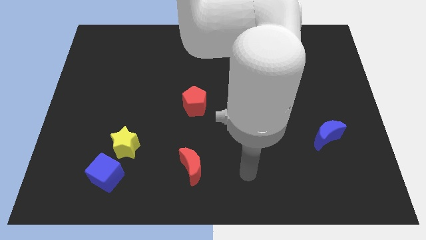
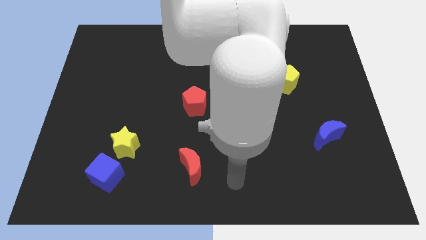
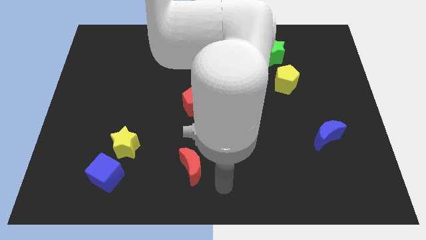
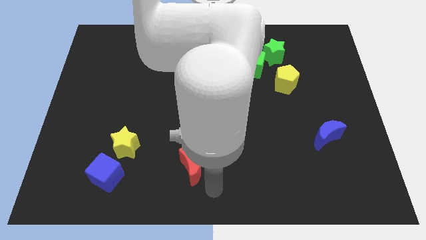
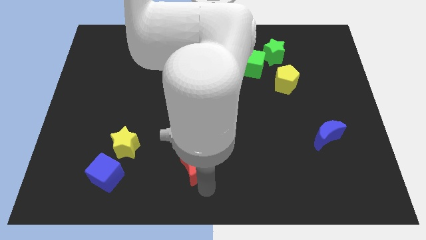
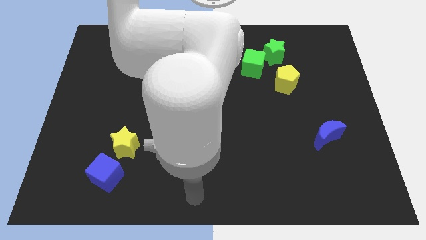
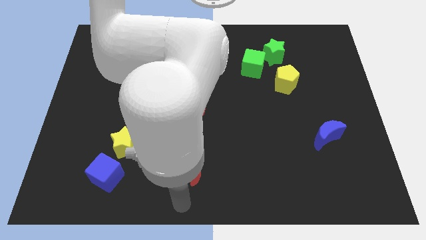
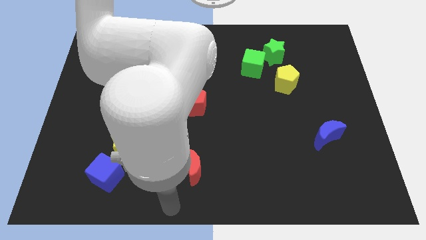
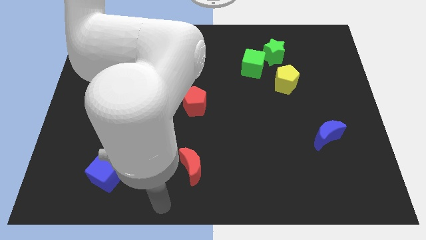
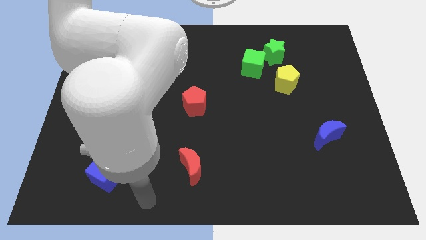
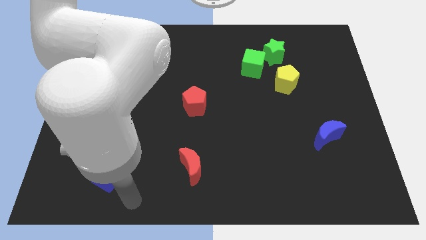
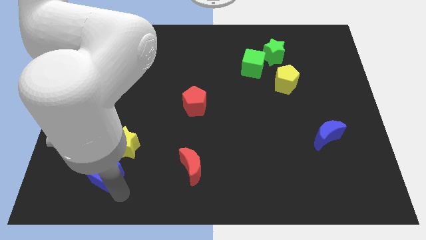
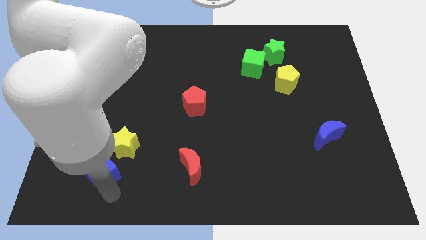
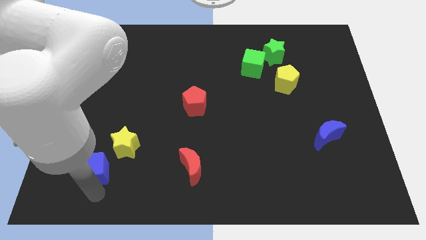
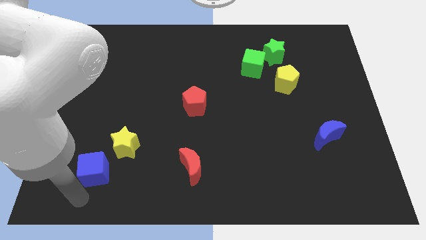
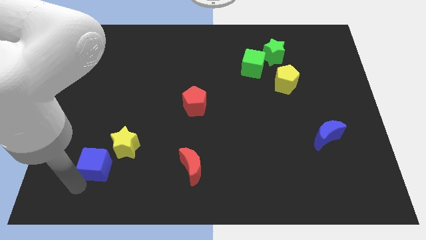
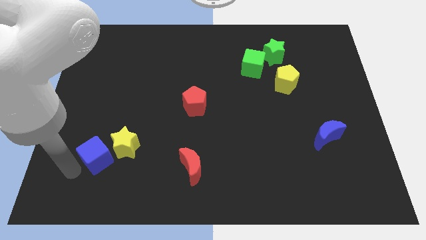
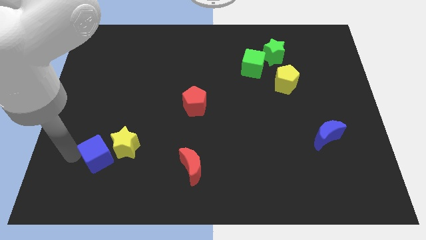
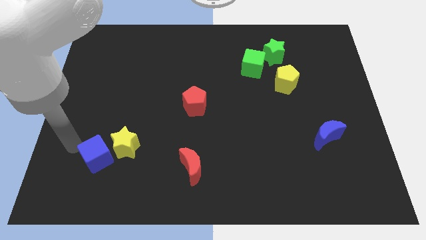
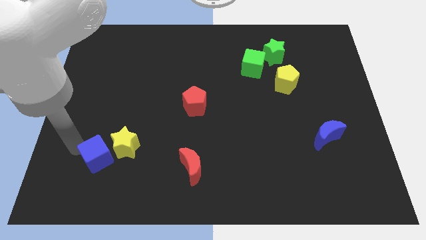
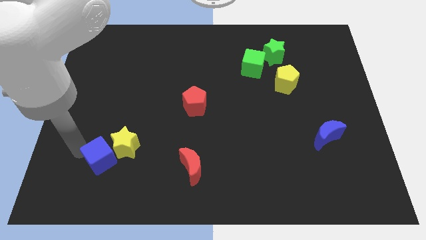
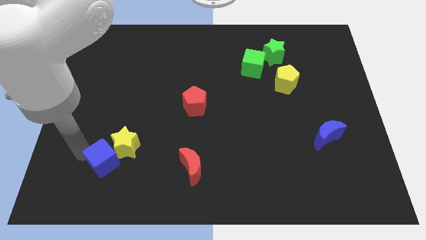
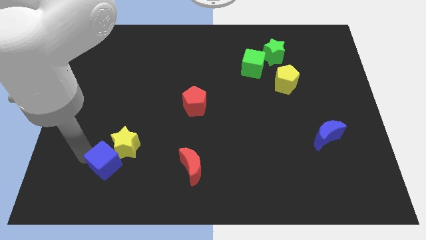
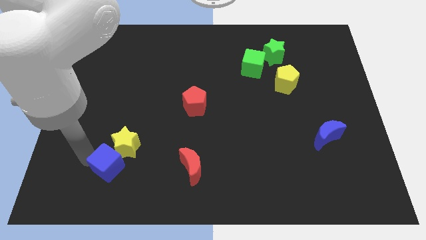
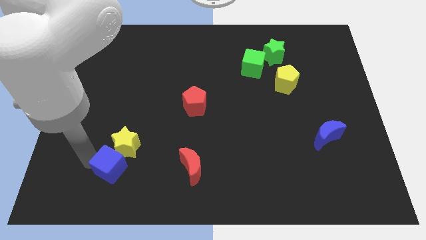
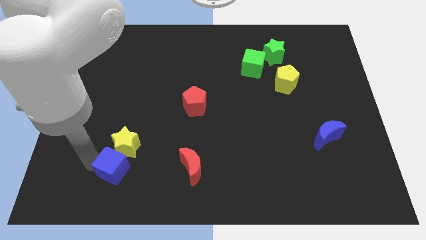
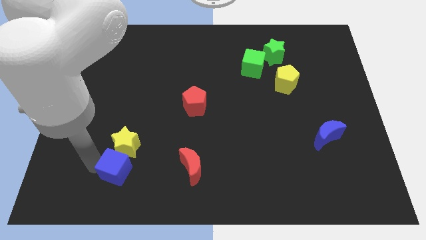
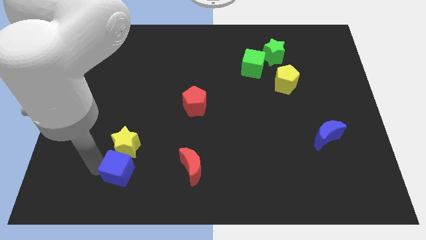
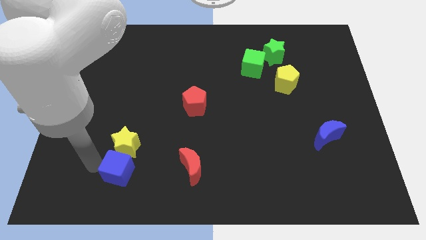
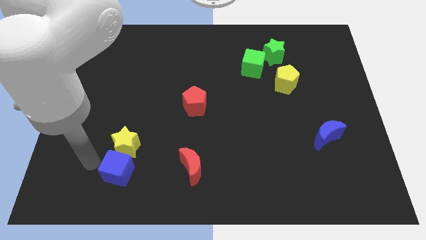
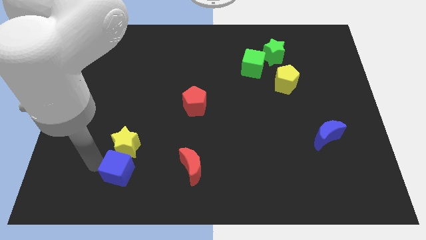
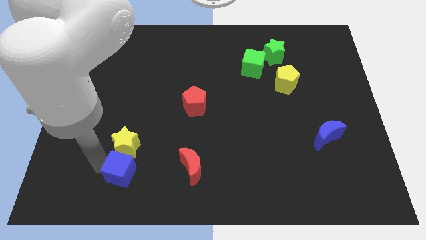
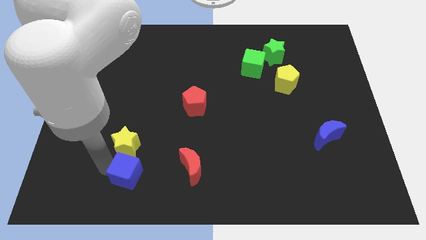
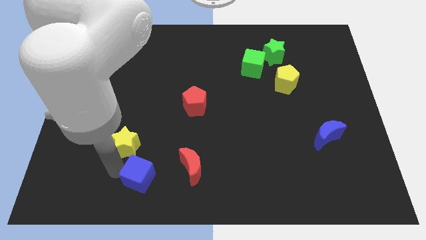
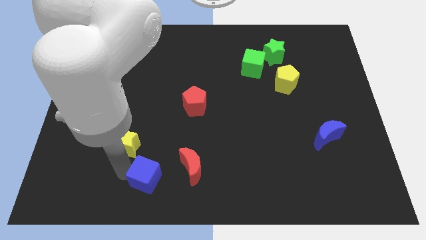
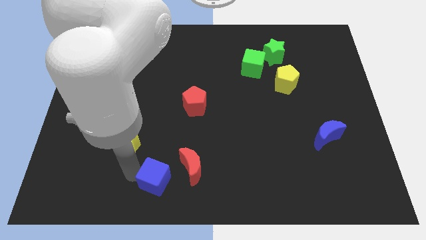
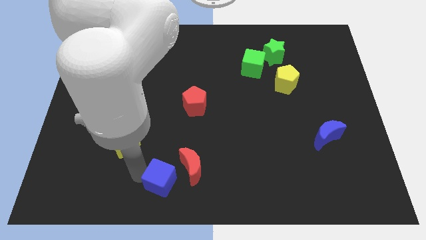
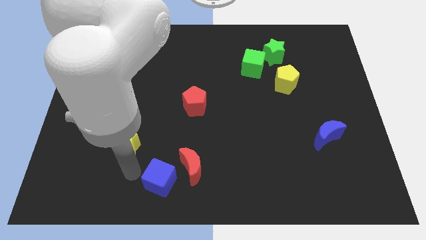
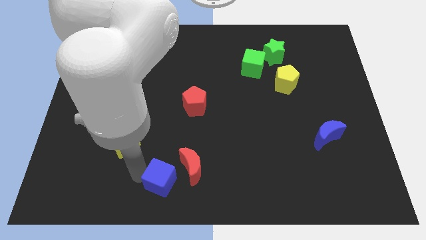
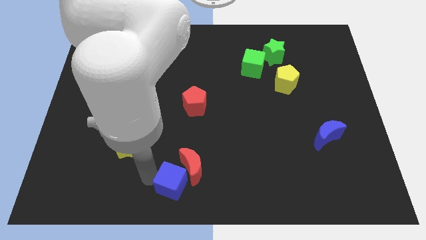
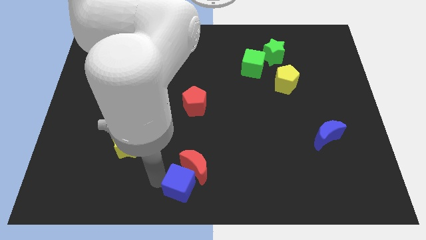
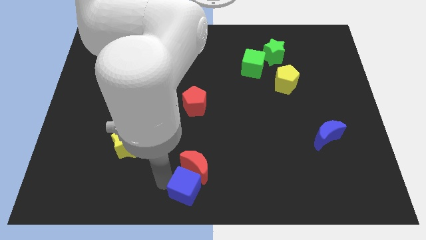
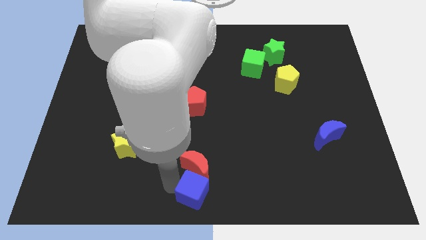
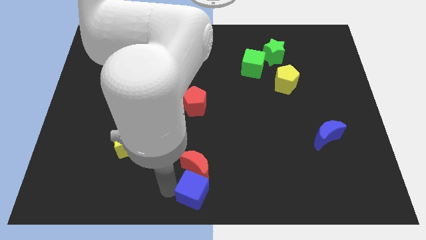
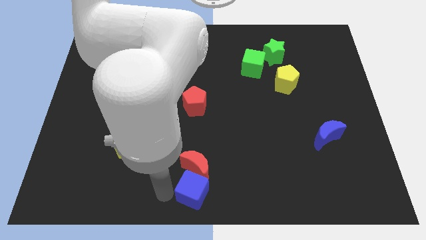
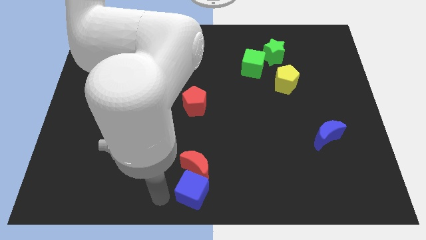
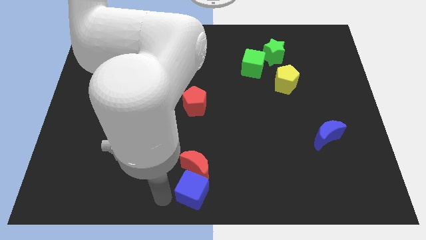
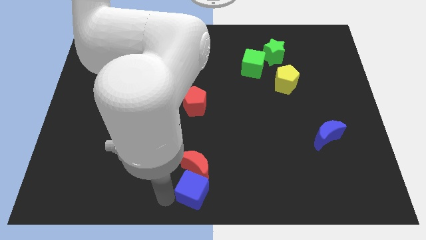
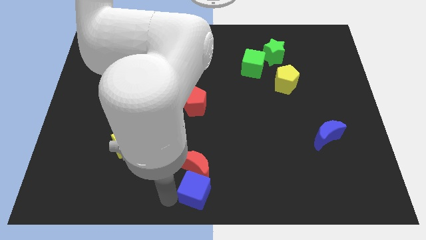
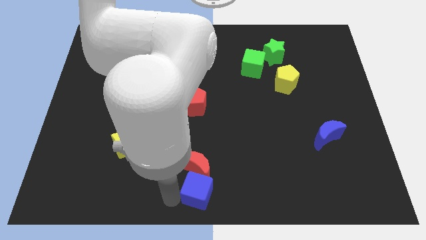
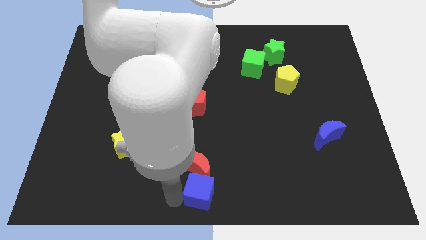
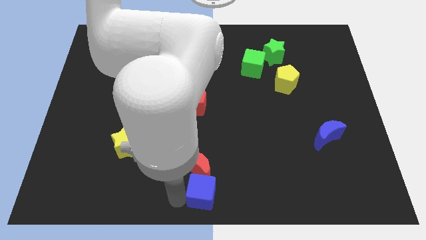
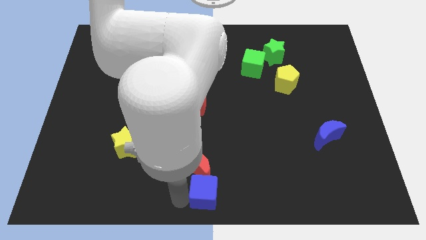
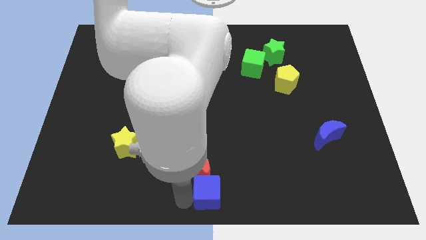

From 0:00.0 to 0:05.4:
push the blue cube right

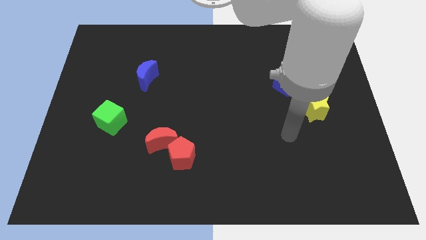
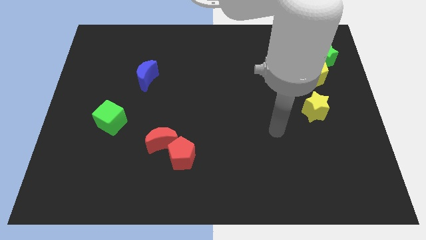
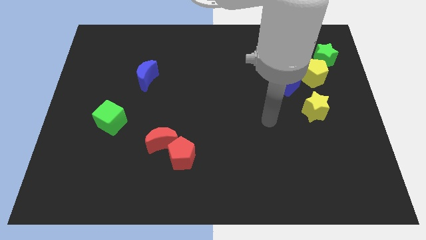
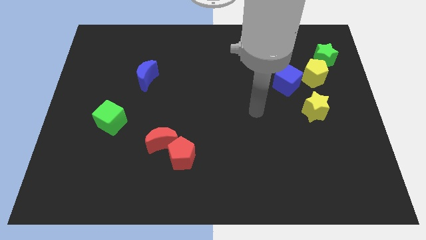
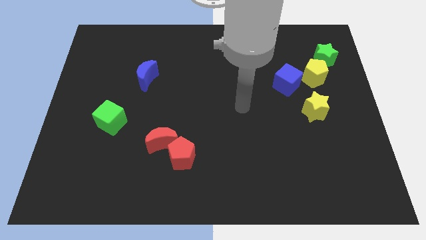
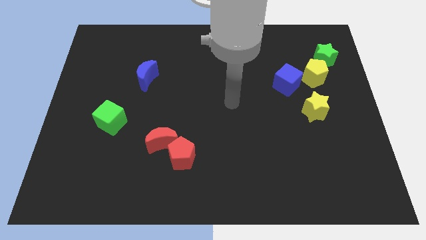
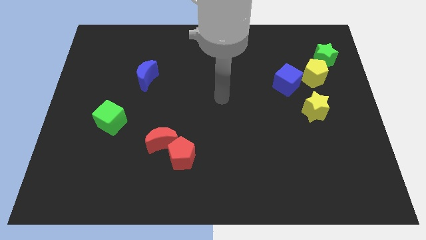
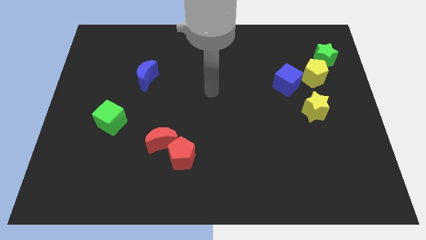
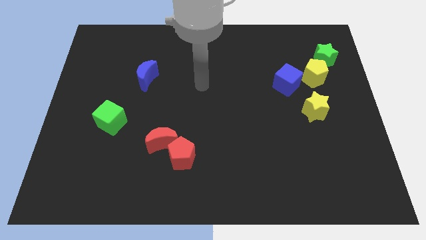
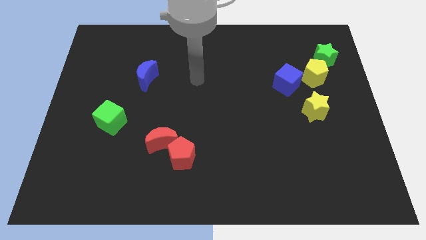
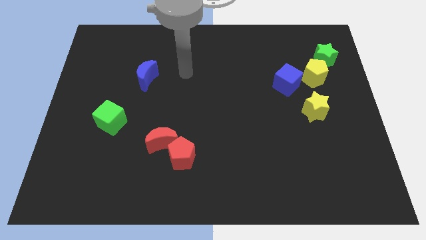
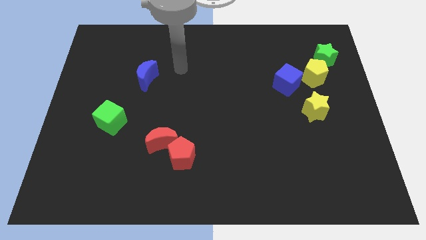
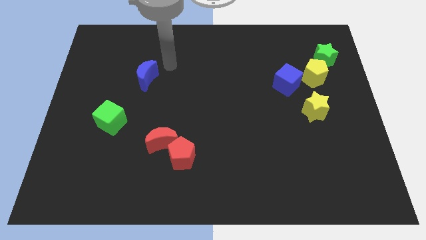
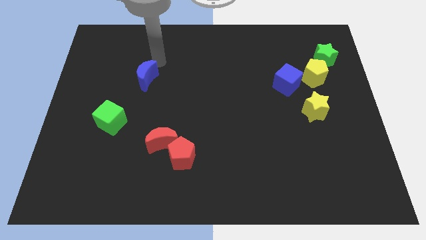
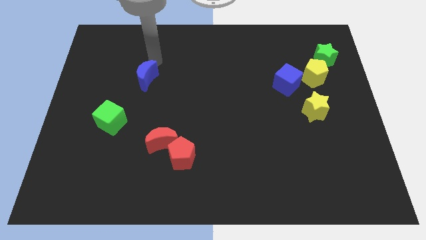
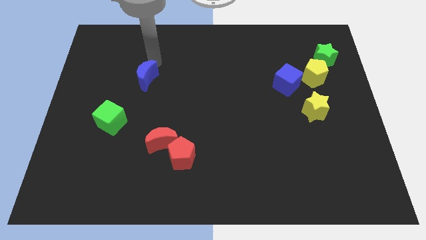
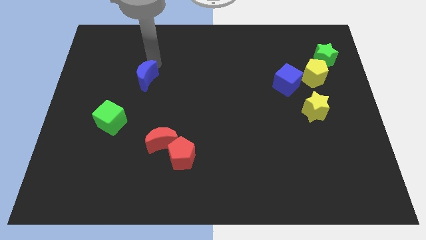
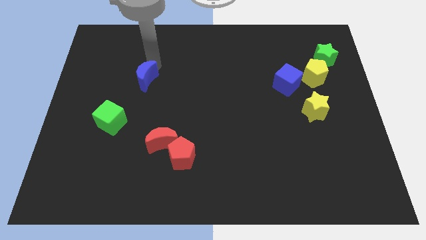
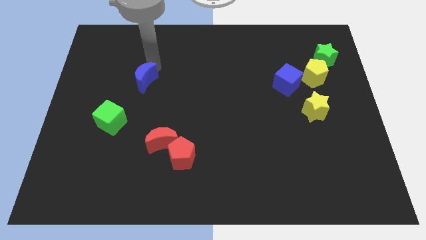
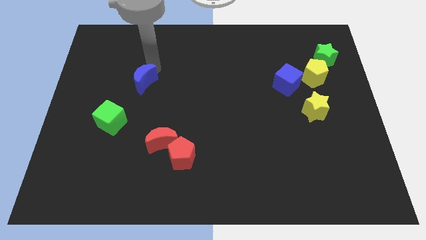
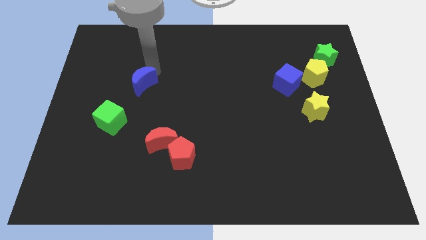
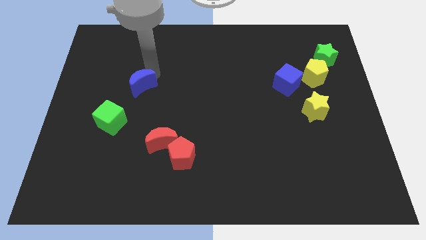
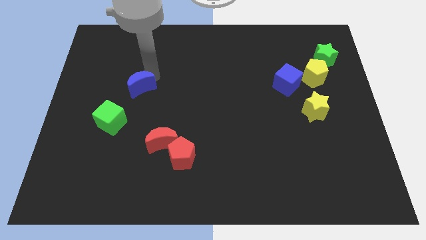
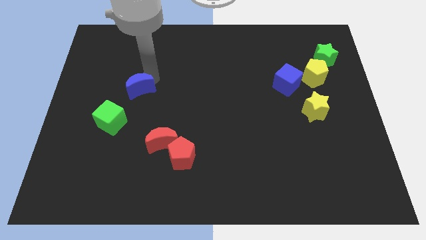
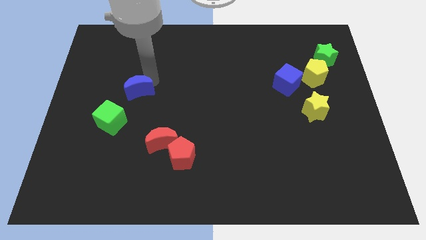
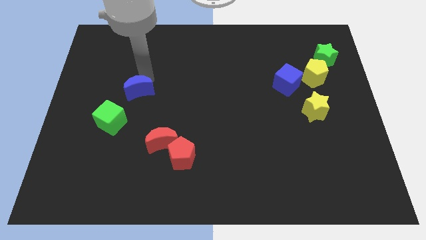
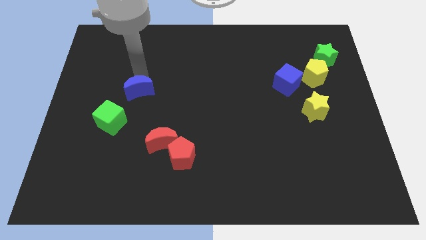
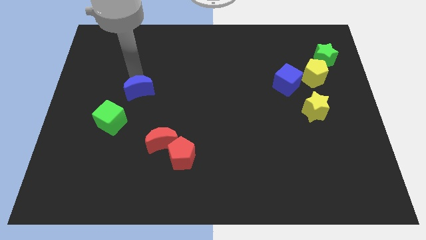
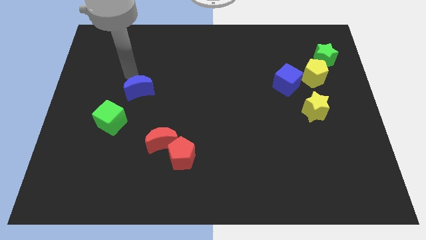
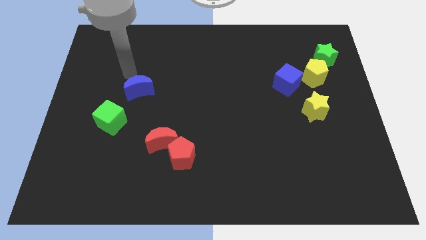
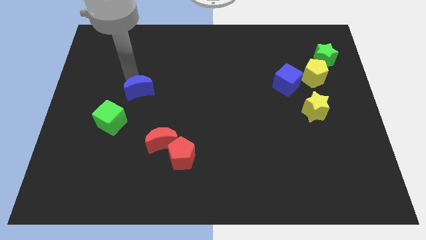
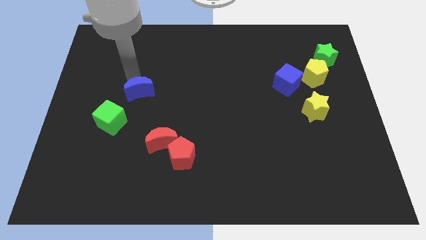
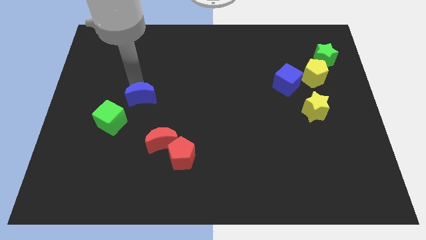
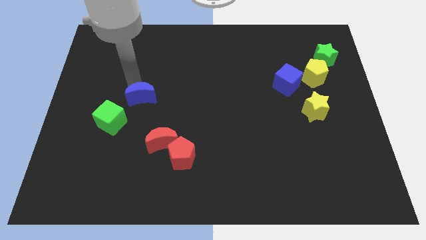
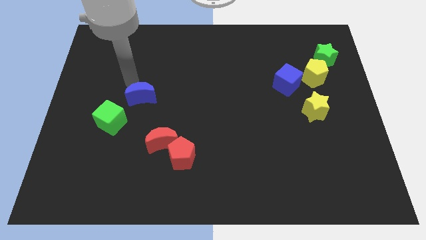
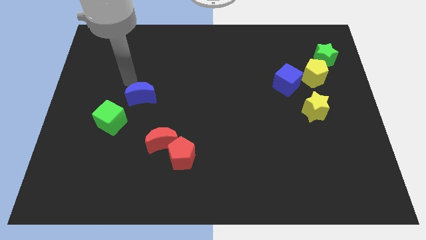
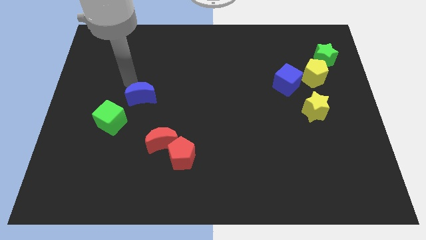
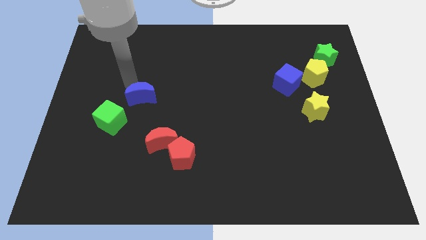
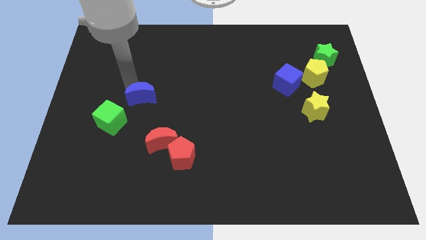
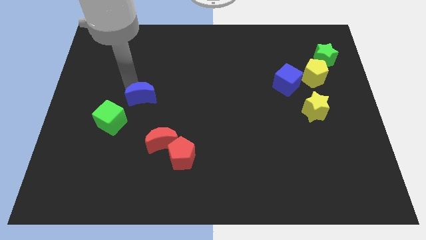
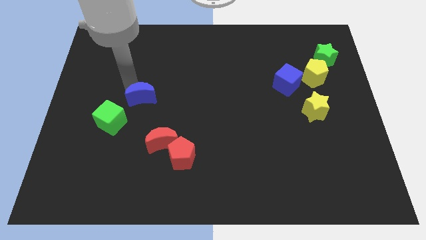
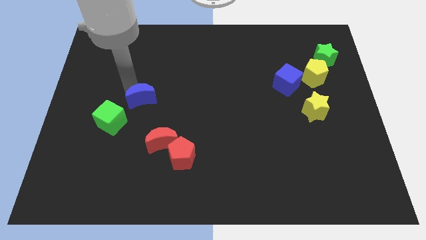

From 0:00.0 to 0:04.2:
push the blue moon down a little bit
